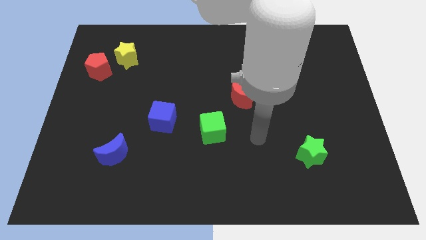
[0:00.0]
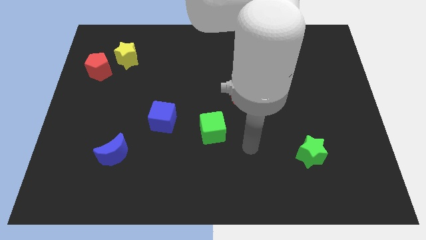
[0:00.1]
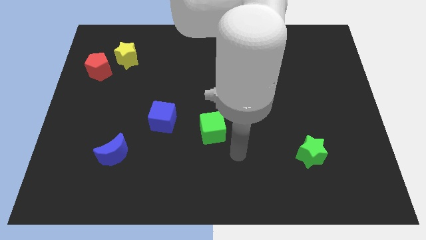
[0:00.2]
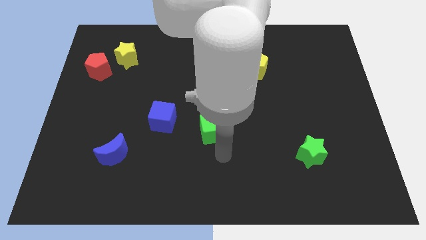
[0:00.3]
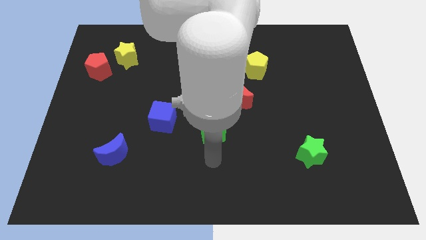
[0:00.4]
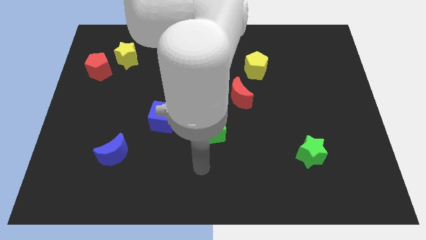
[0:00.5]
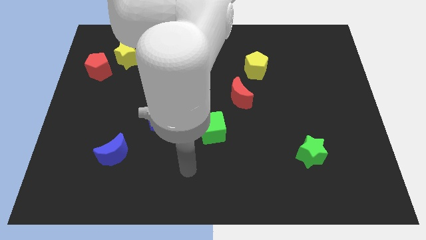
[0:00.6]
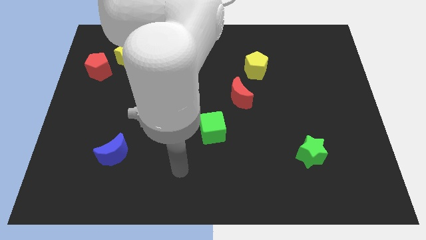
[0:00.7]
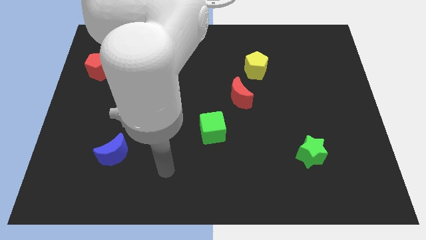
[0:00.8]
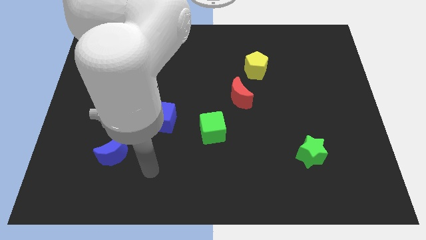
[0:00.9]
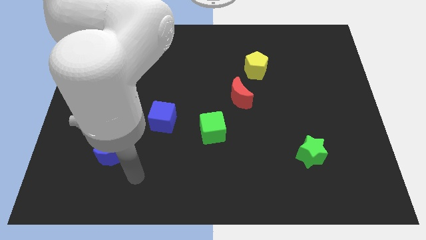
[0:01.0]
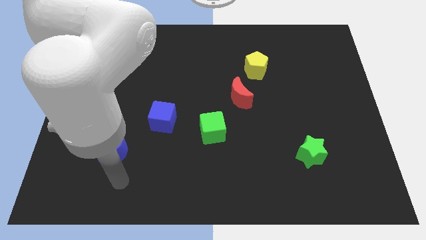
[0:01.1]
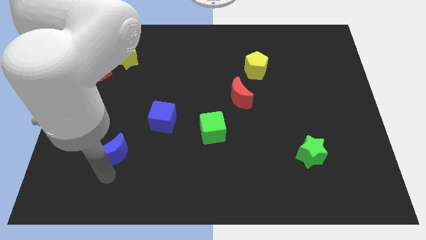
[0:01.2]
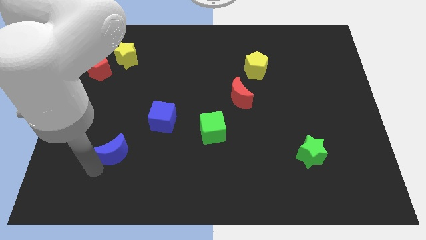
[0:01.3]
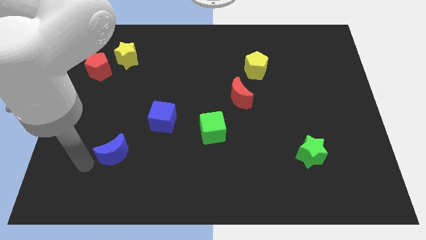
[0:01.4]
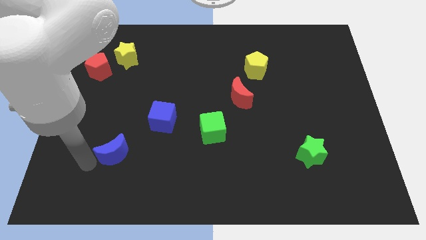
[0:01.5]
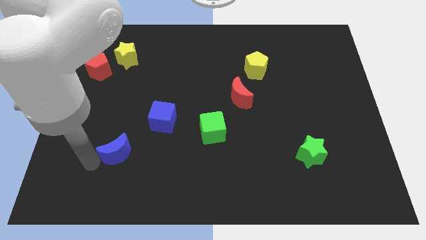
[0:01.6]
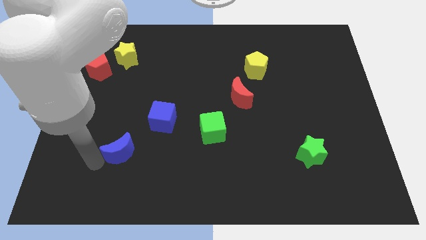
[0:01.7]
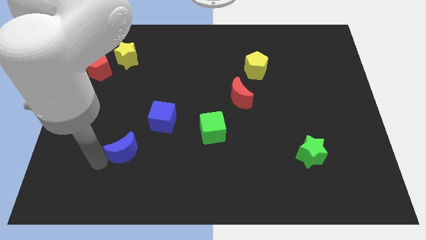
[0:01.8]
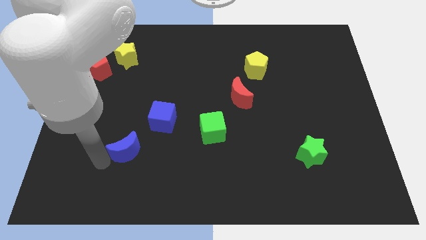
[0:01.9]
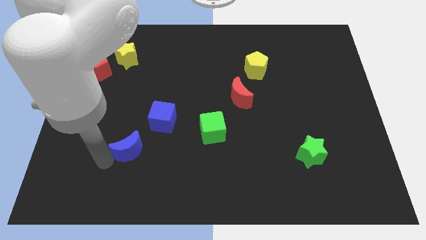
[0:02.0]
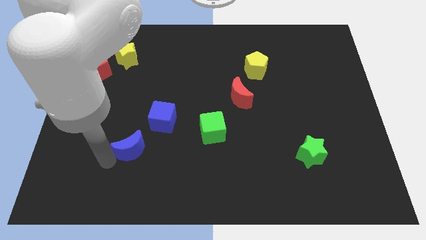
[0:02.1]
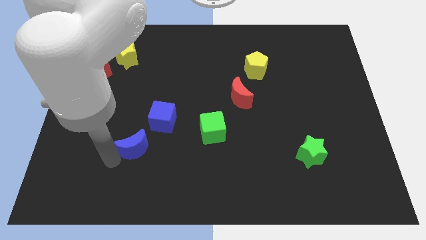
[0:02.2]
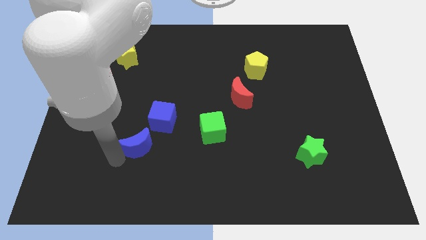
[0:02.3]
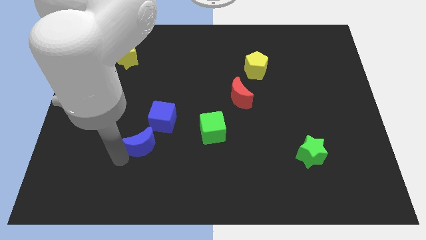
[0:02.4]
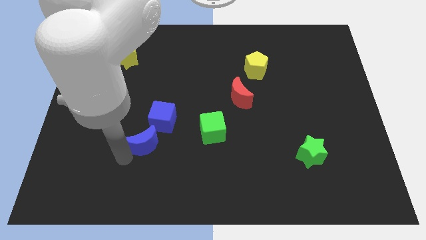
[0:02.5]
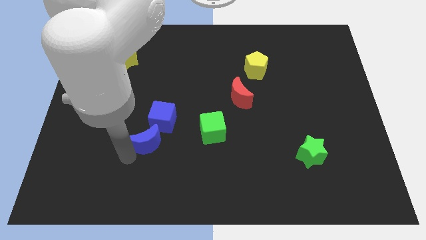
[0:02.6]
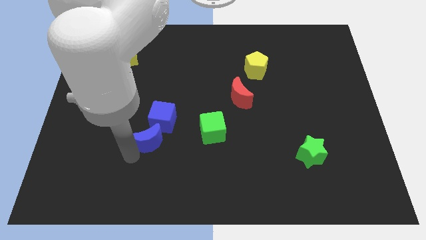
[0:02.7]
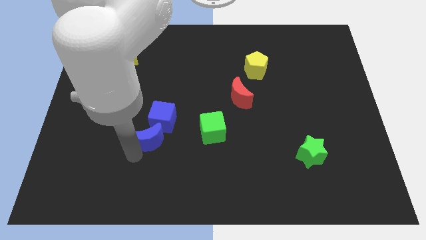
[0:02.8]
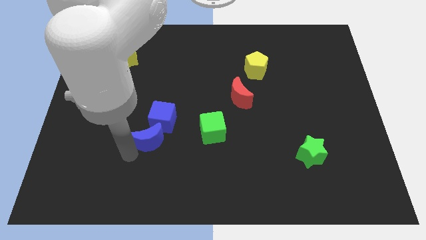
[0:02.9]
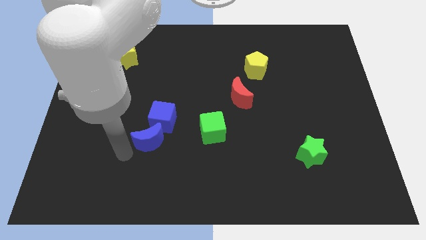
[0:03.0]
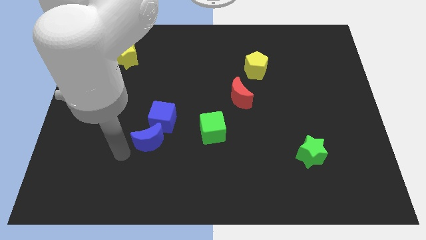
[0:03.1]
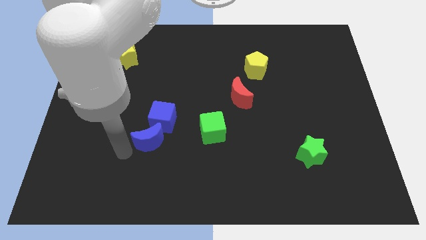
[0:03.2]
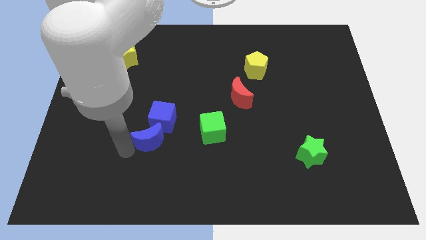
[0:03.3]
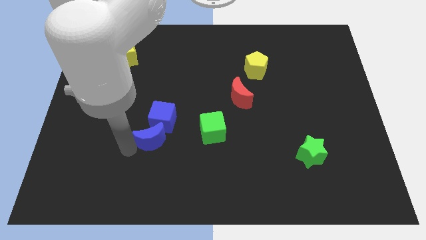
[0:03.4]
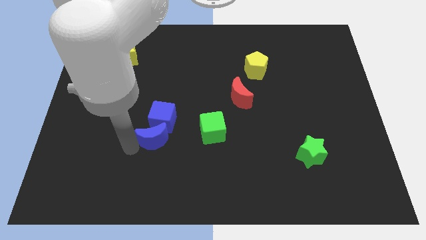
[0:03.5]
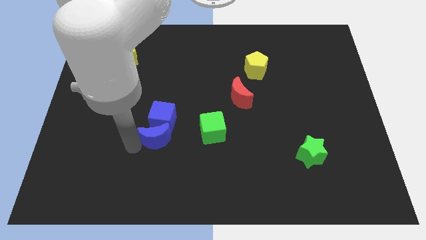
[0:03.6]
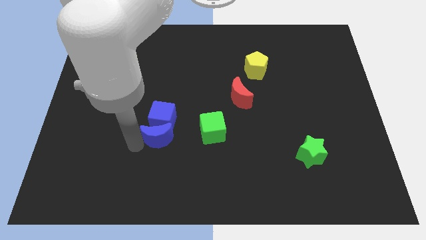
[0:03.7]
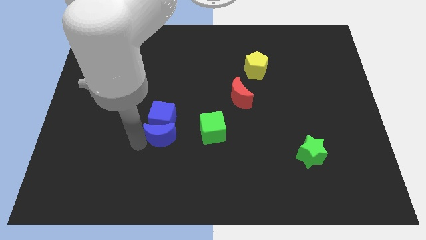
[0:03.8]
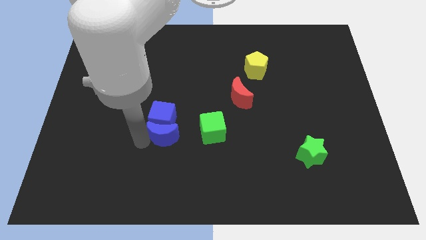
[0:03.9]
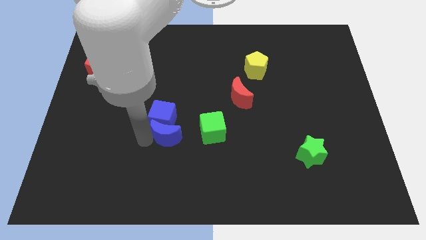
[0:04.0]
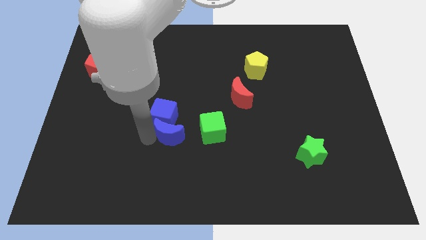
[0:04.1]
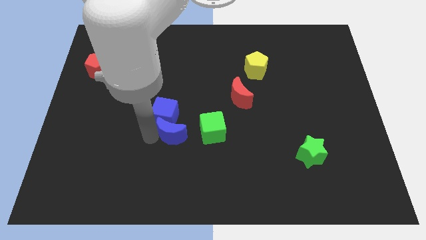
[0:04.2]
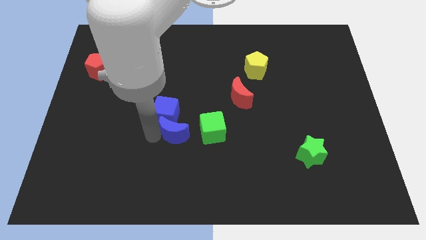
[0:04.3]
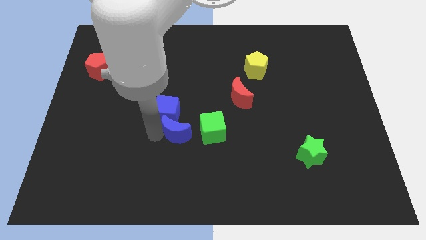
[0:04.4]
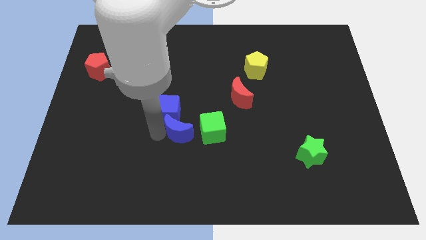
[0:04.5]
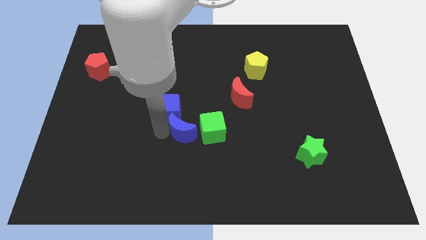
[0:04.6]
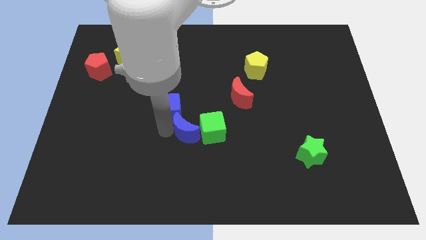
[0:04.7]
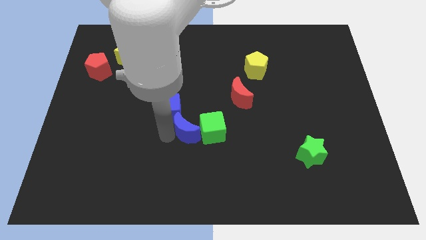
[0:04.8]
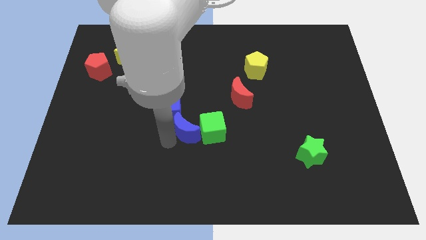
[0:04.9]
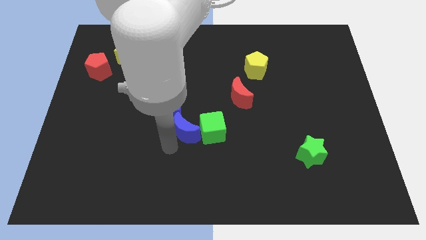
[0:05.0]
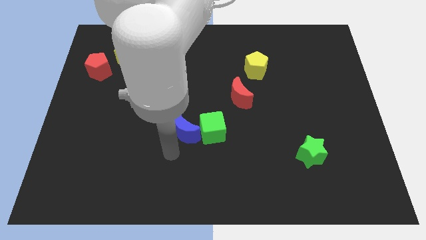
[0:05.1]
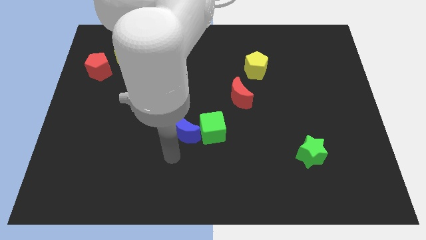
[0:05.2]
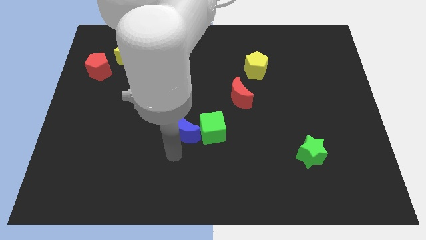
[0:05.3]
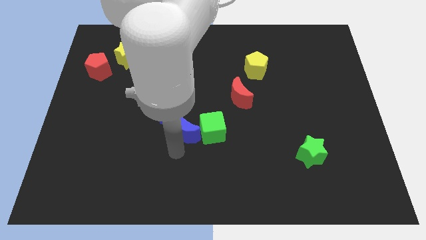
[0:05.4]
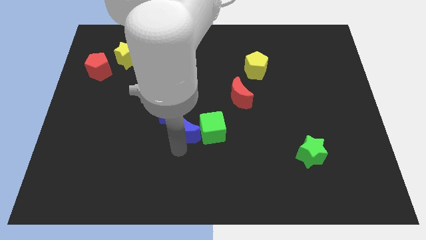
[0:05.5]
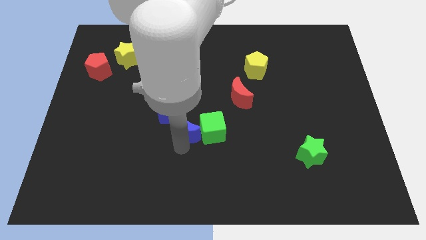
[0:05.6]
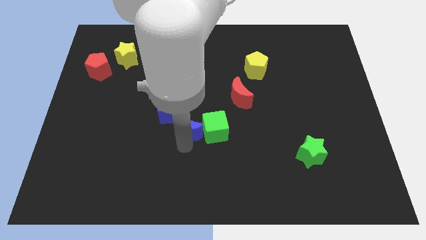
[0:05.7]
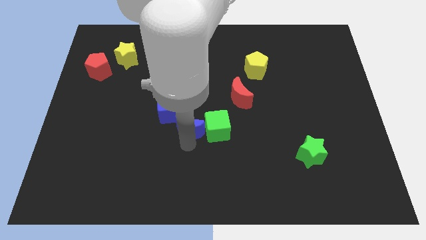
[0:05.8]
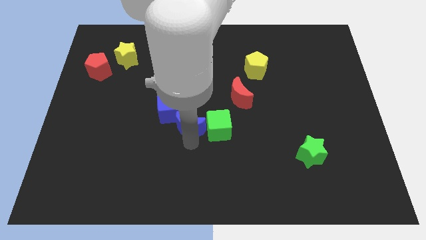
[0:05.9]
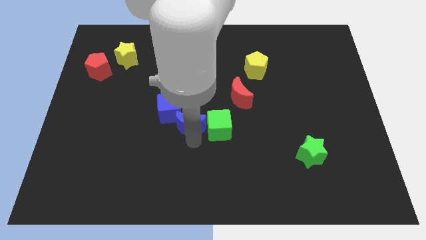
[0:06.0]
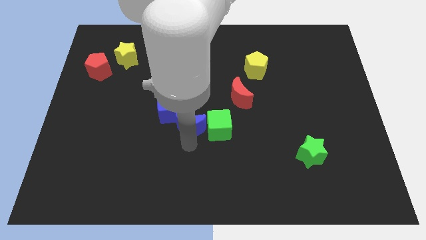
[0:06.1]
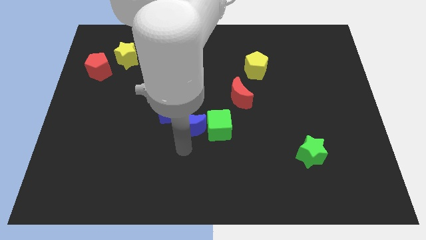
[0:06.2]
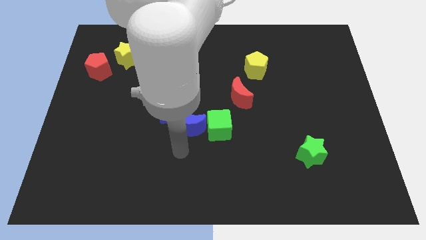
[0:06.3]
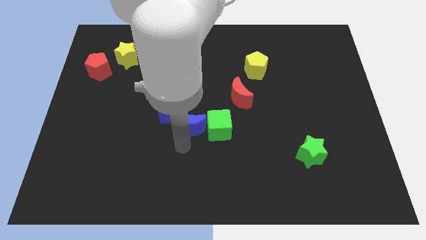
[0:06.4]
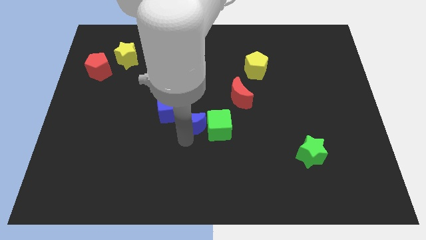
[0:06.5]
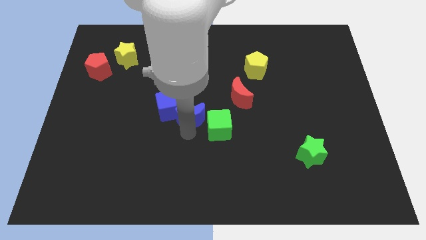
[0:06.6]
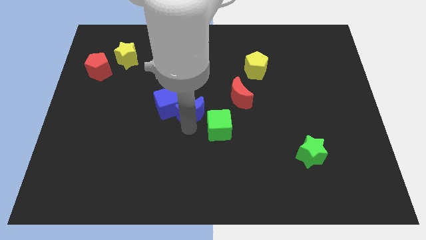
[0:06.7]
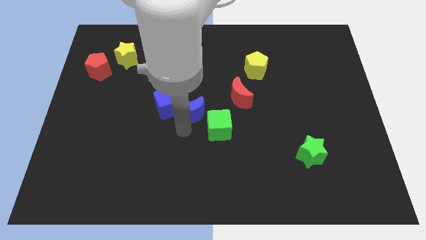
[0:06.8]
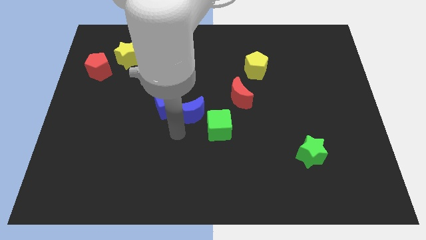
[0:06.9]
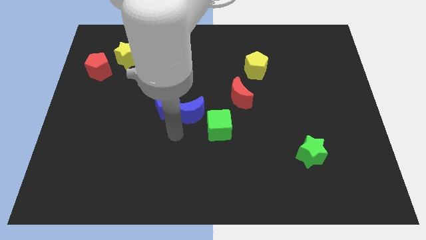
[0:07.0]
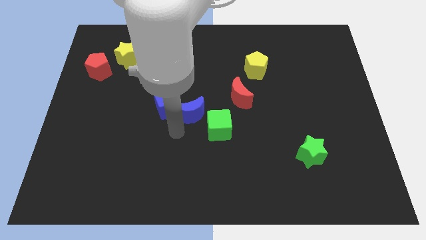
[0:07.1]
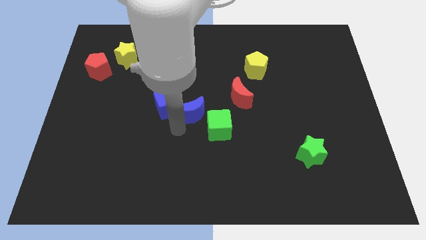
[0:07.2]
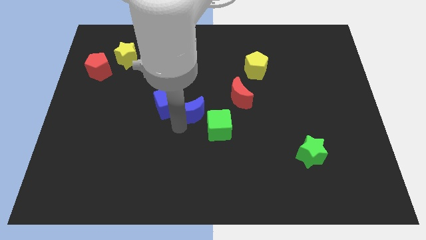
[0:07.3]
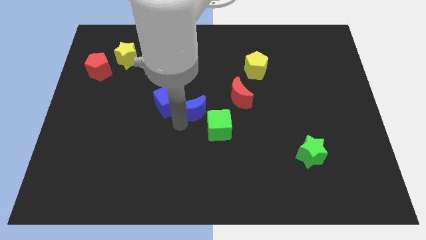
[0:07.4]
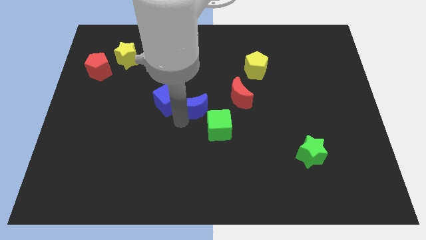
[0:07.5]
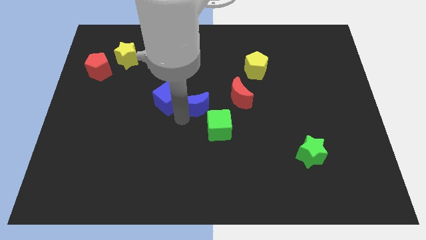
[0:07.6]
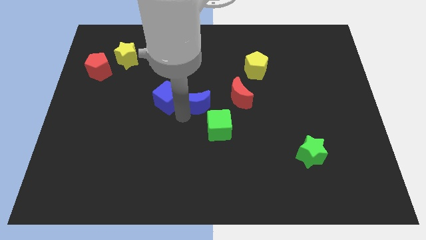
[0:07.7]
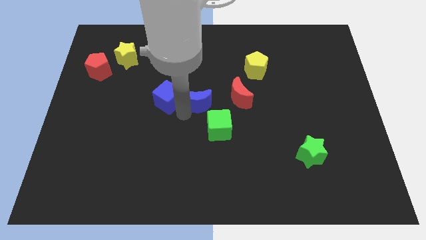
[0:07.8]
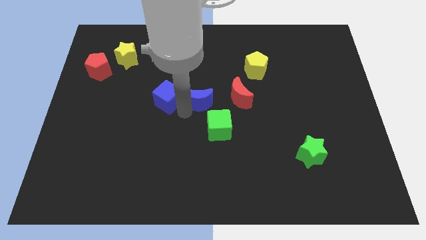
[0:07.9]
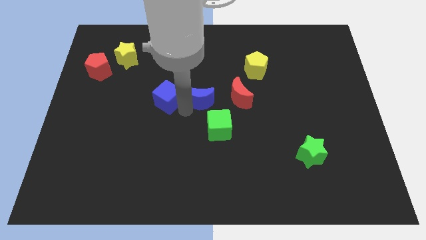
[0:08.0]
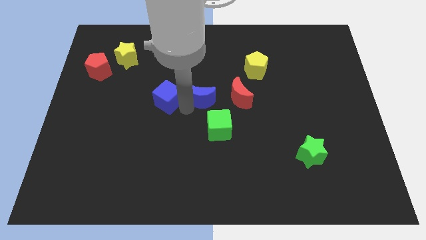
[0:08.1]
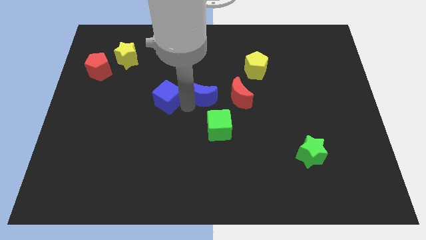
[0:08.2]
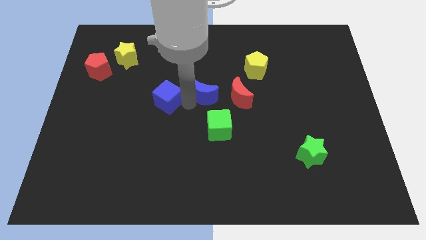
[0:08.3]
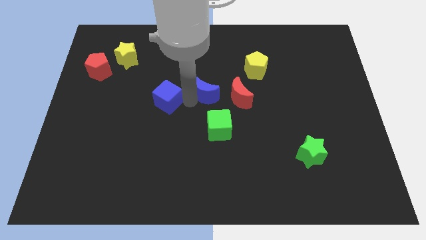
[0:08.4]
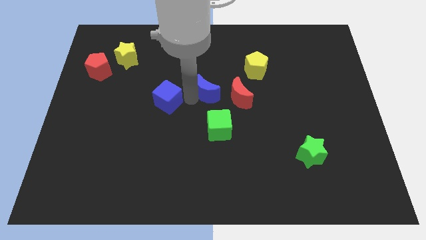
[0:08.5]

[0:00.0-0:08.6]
put the blue moon diagonally up and to the left of the red moon
